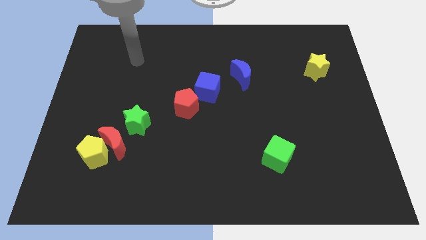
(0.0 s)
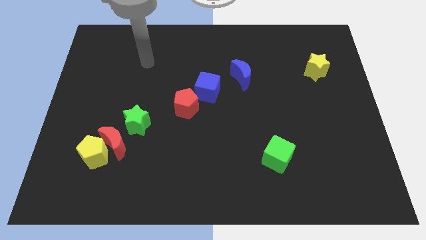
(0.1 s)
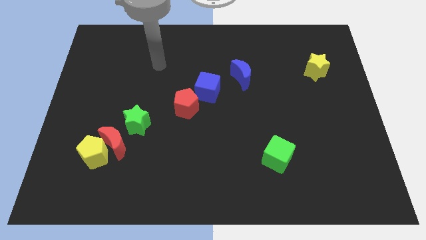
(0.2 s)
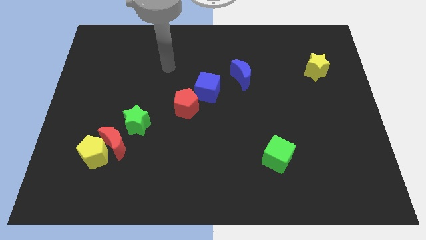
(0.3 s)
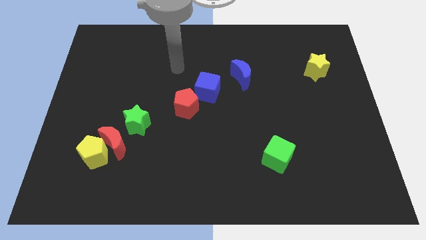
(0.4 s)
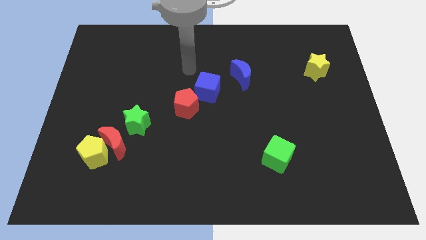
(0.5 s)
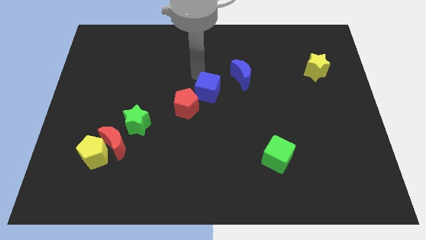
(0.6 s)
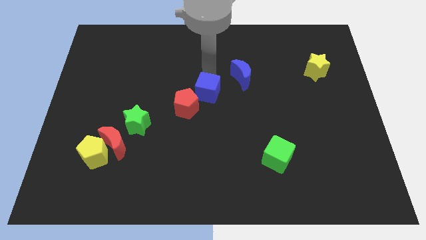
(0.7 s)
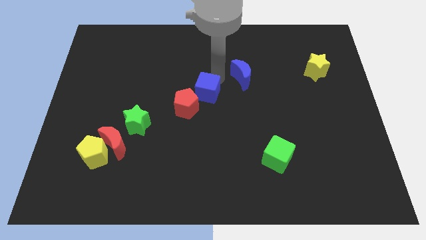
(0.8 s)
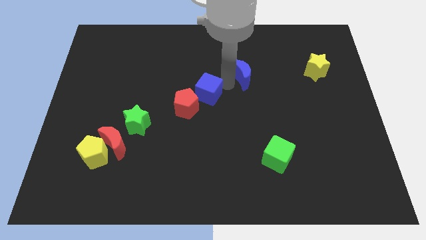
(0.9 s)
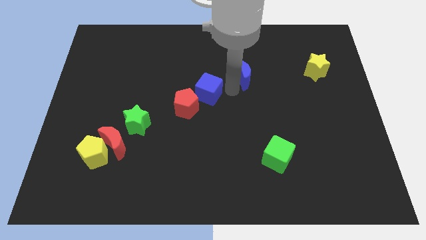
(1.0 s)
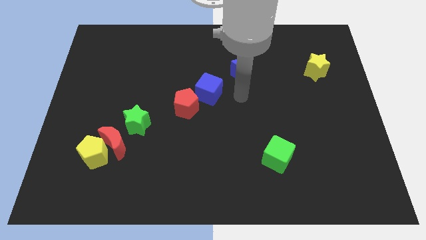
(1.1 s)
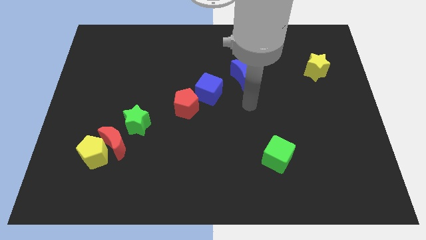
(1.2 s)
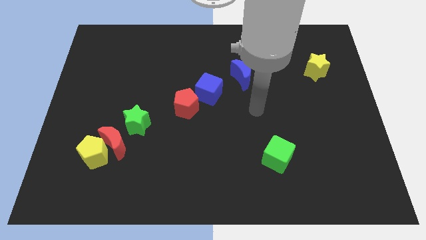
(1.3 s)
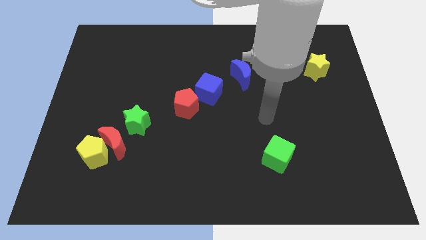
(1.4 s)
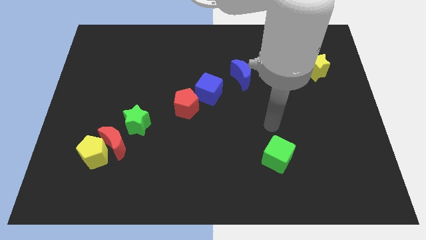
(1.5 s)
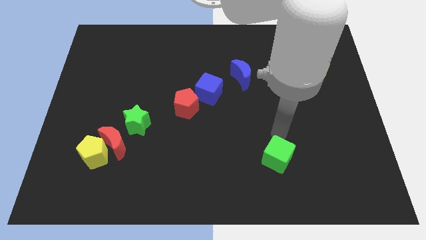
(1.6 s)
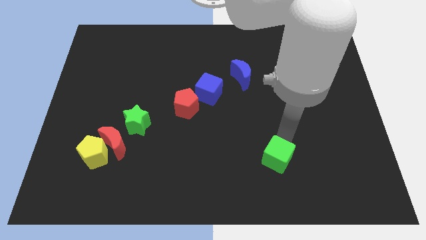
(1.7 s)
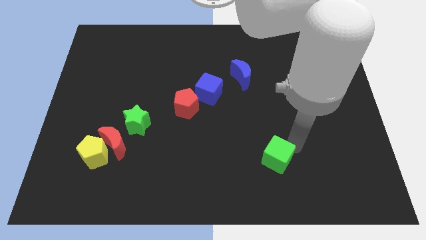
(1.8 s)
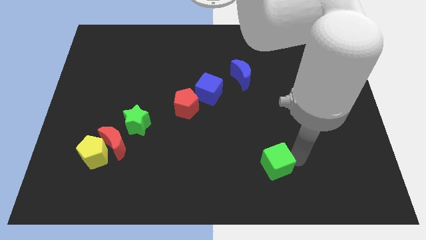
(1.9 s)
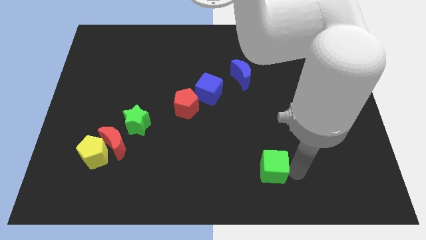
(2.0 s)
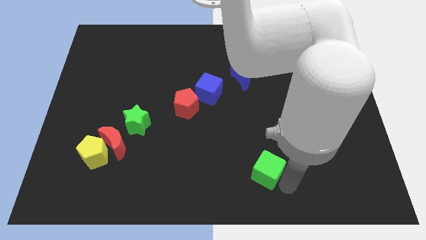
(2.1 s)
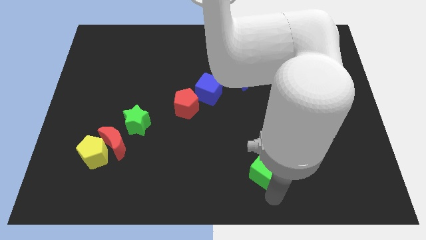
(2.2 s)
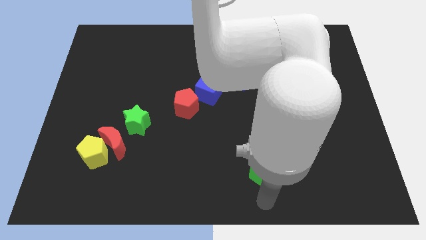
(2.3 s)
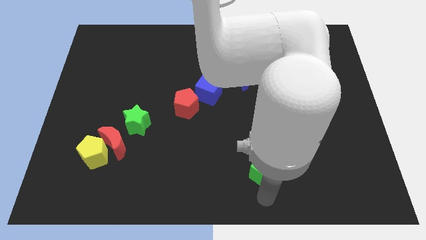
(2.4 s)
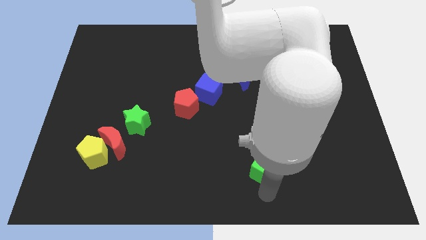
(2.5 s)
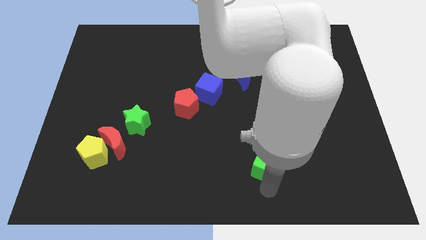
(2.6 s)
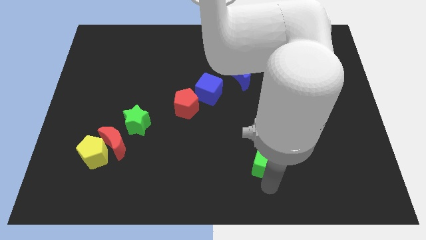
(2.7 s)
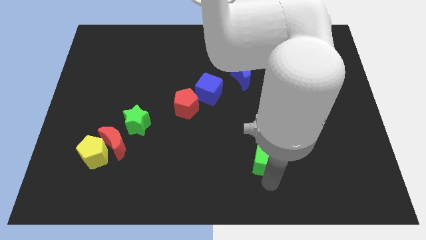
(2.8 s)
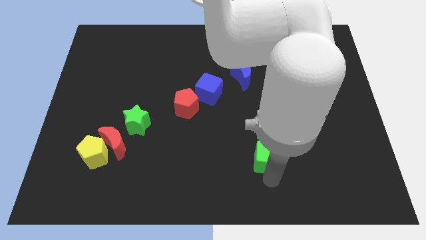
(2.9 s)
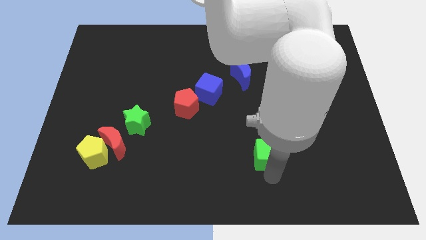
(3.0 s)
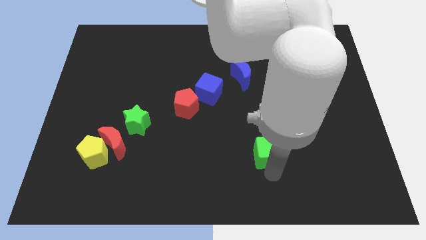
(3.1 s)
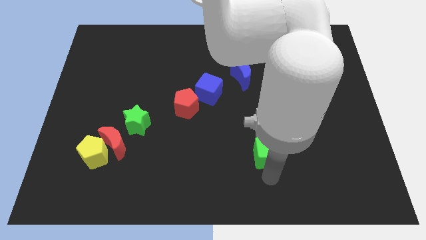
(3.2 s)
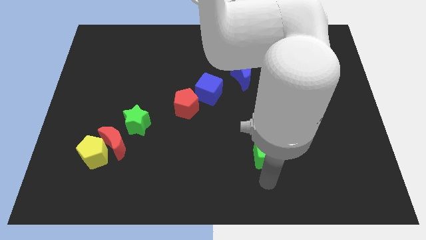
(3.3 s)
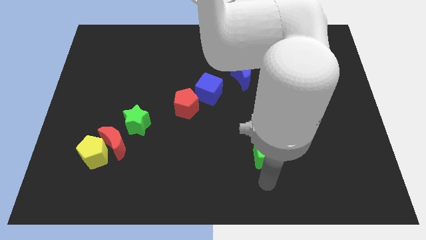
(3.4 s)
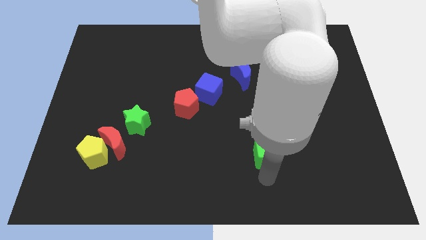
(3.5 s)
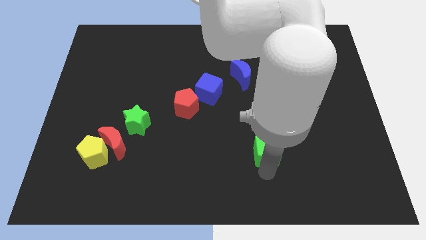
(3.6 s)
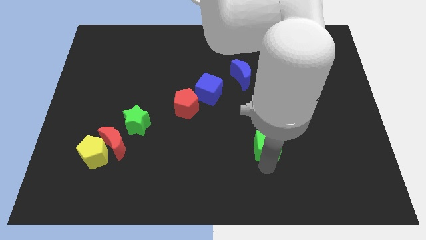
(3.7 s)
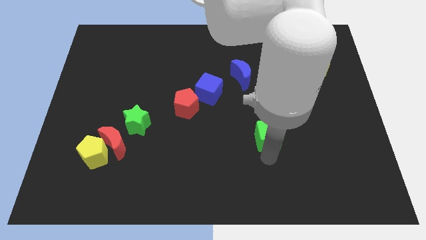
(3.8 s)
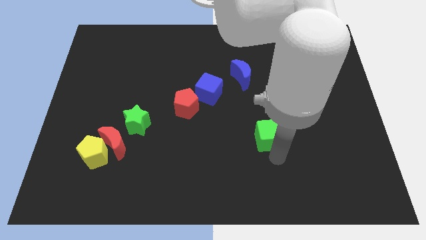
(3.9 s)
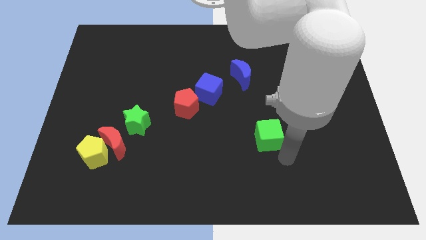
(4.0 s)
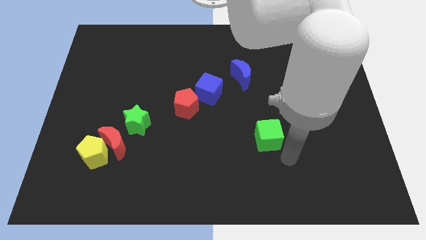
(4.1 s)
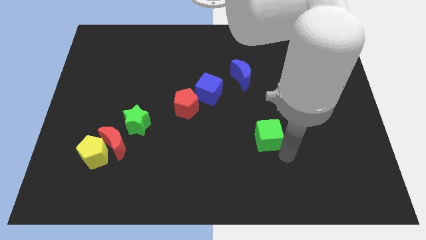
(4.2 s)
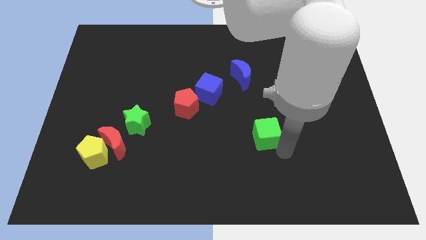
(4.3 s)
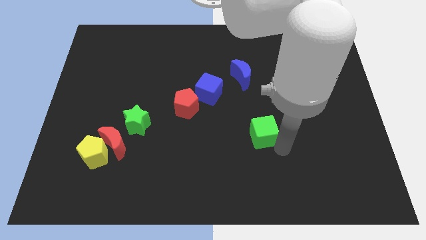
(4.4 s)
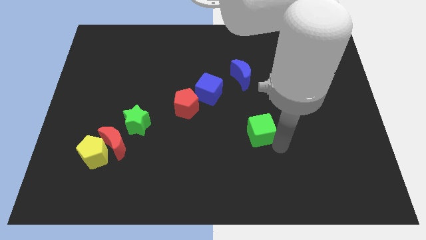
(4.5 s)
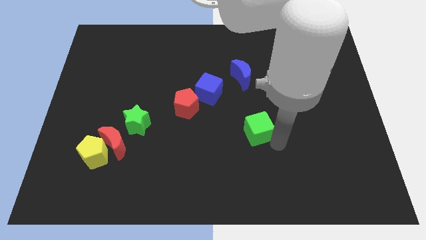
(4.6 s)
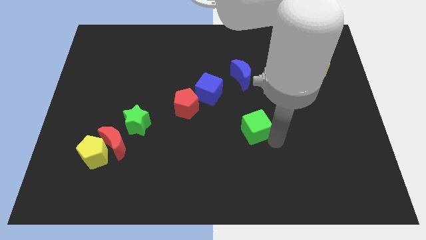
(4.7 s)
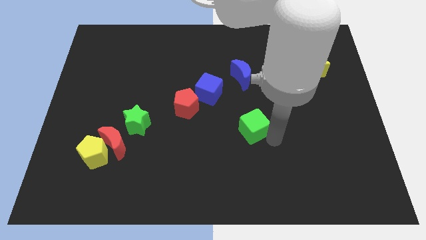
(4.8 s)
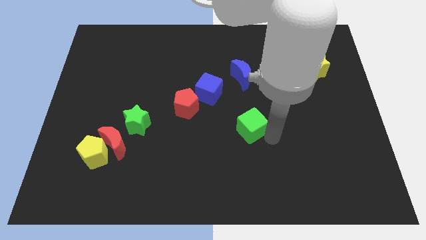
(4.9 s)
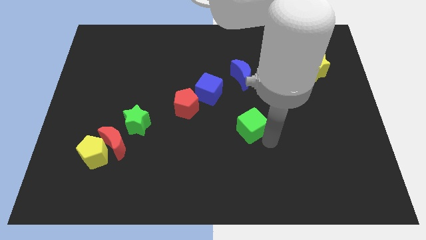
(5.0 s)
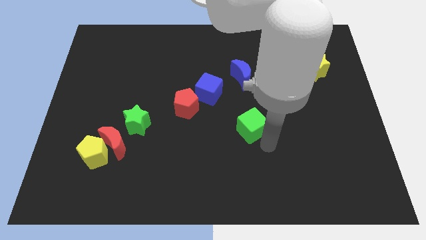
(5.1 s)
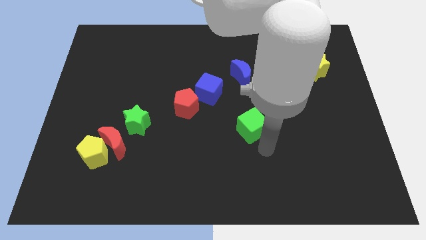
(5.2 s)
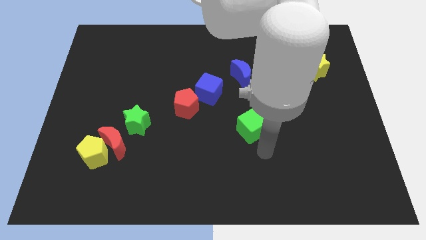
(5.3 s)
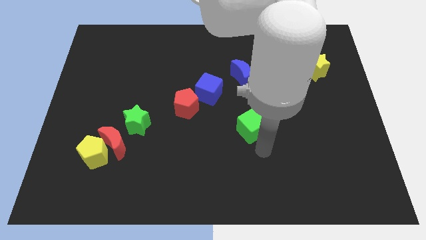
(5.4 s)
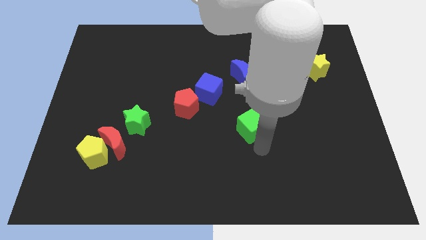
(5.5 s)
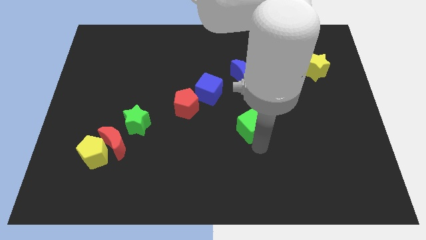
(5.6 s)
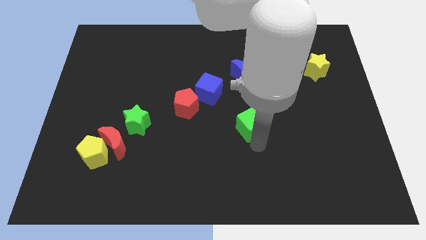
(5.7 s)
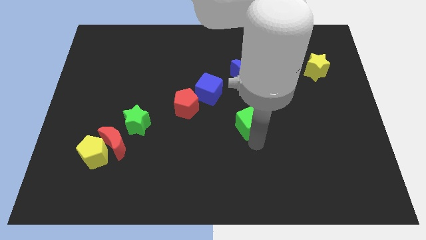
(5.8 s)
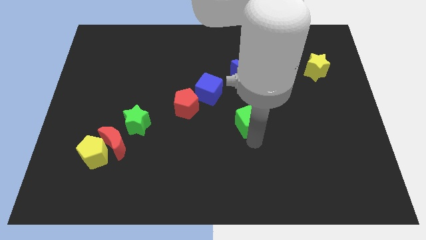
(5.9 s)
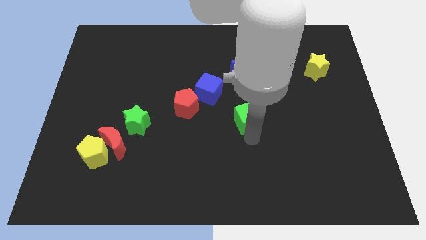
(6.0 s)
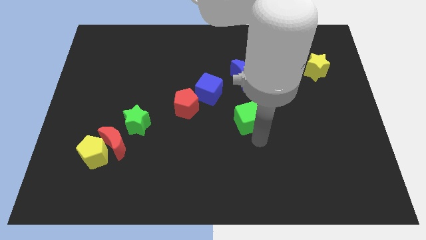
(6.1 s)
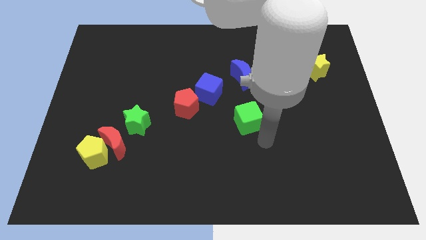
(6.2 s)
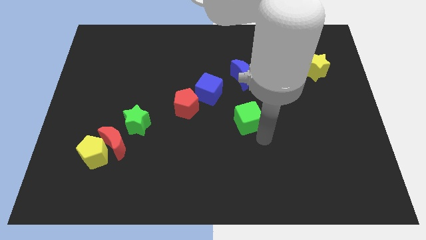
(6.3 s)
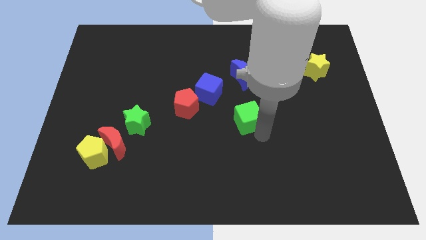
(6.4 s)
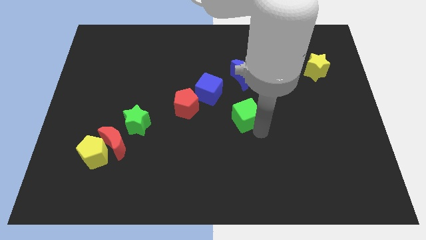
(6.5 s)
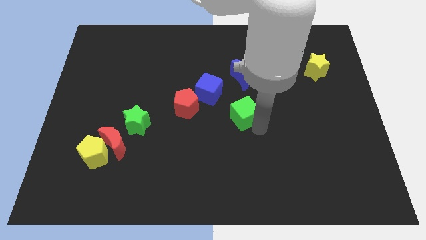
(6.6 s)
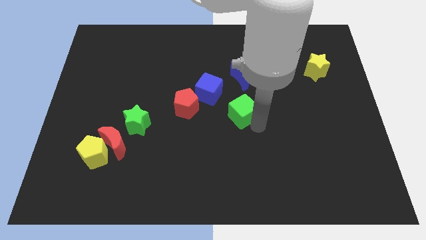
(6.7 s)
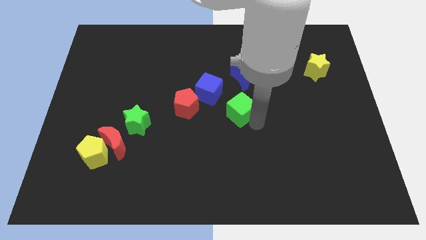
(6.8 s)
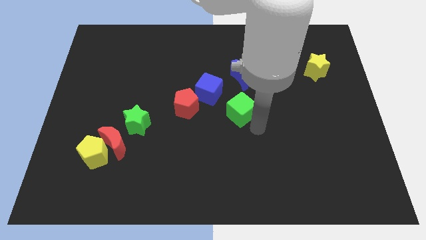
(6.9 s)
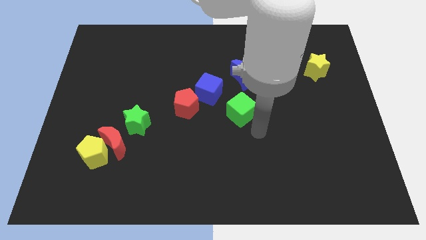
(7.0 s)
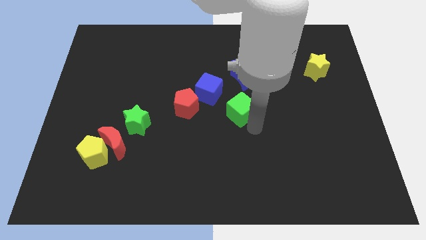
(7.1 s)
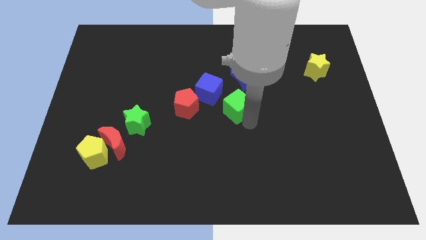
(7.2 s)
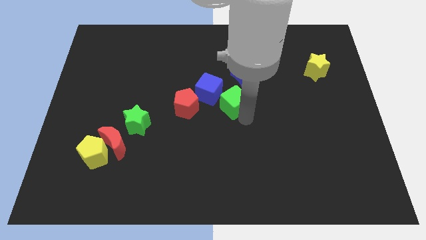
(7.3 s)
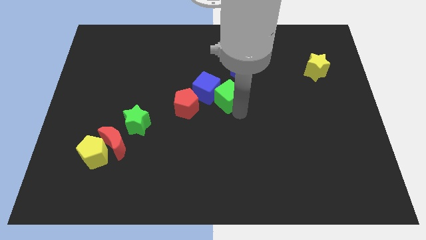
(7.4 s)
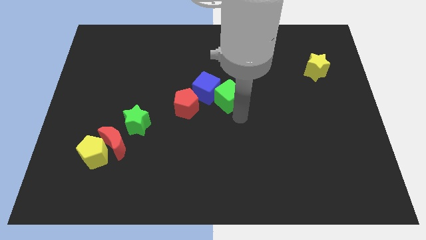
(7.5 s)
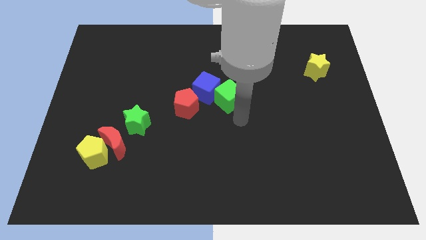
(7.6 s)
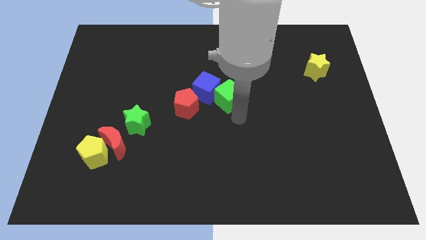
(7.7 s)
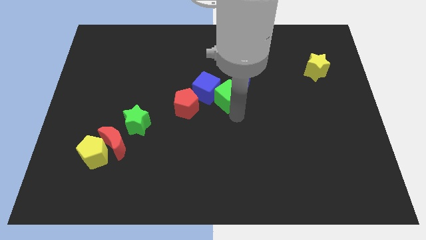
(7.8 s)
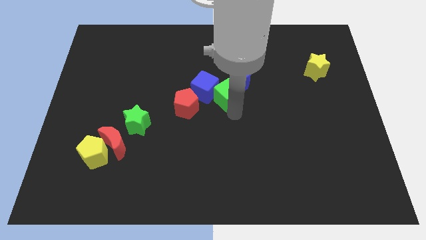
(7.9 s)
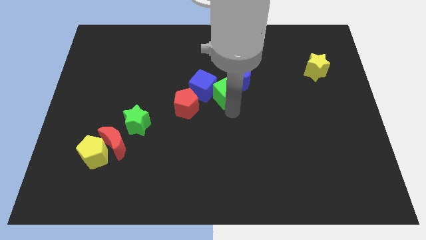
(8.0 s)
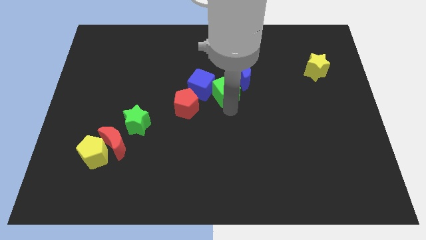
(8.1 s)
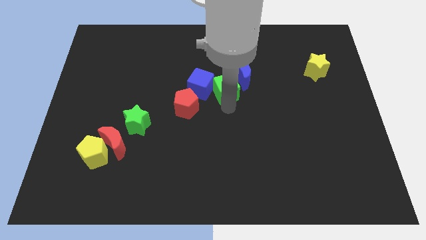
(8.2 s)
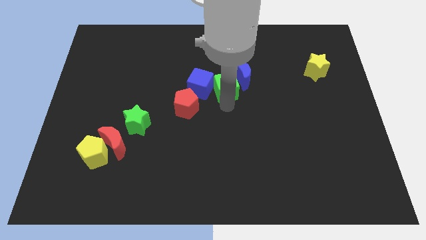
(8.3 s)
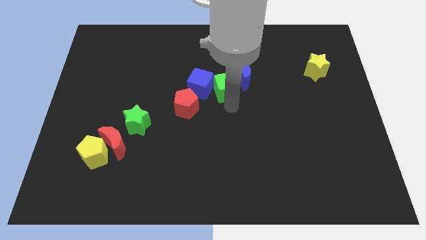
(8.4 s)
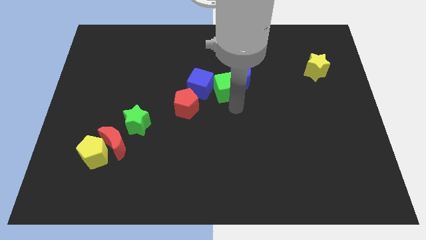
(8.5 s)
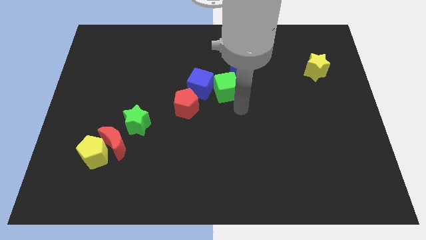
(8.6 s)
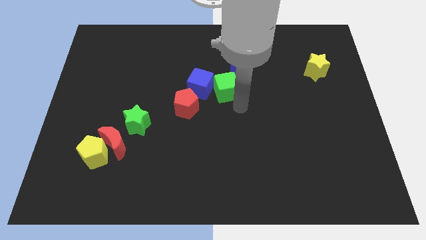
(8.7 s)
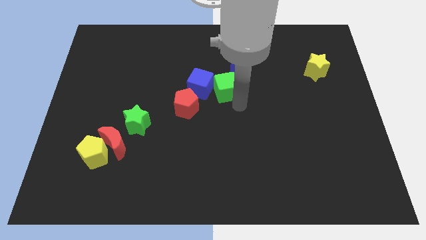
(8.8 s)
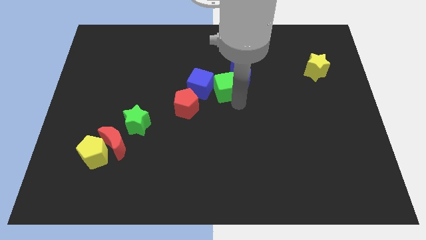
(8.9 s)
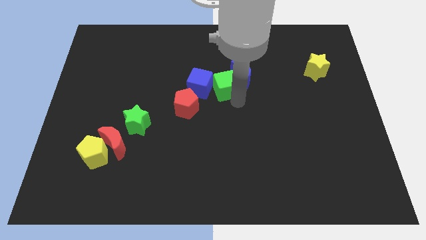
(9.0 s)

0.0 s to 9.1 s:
push the green cube upwards and left
